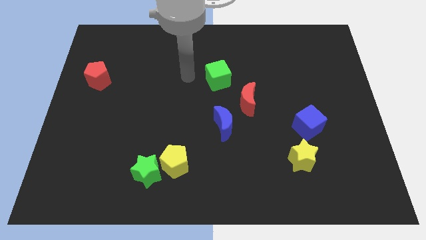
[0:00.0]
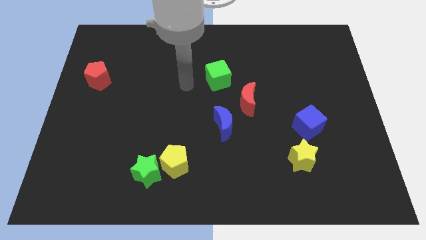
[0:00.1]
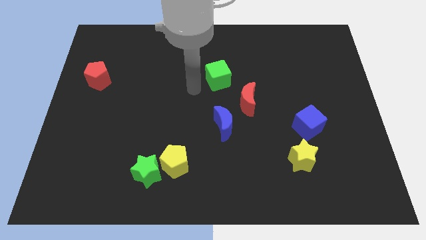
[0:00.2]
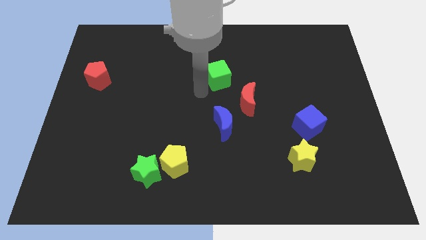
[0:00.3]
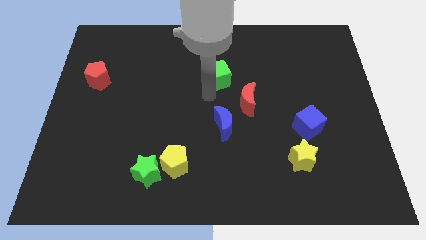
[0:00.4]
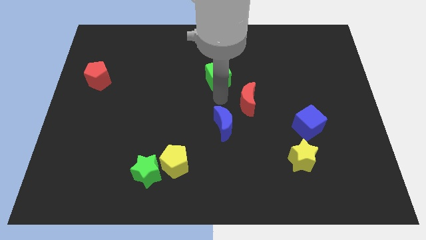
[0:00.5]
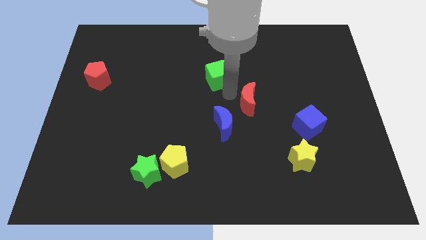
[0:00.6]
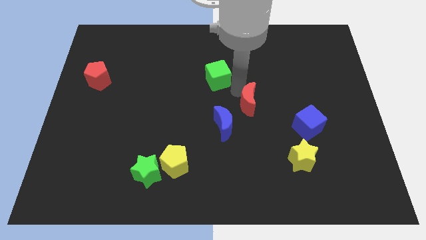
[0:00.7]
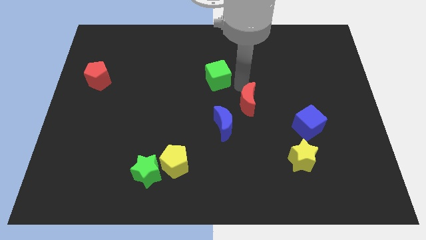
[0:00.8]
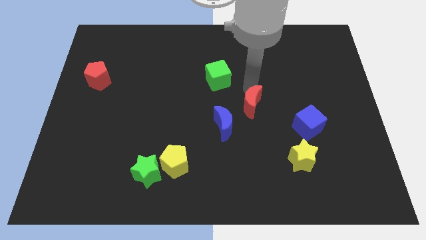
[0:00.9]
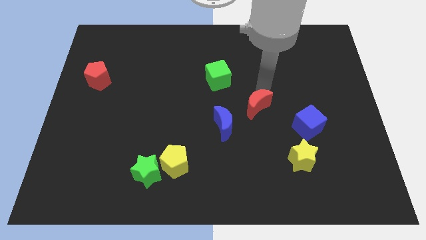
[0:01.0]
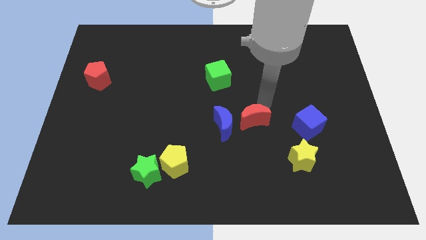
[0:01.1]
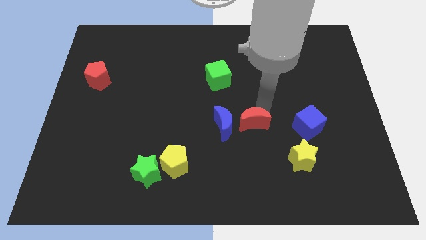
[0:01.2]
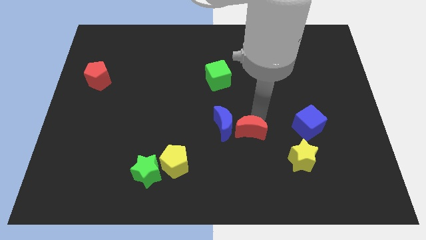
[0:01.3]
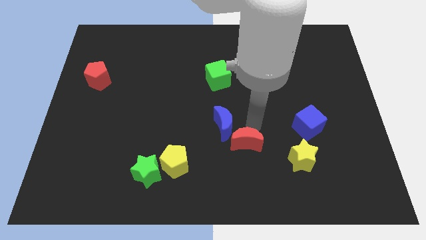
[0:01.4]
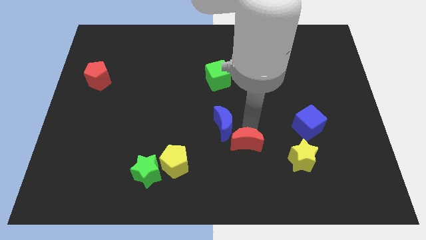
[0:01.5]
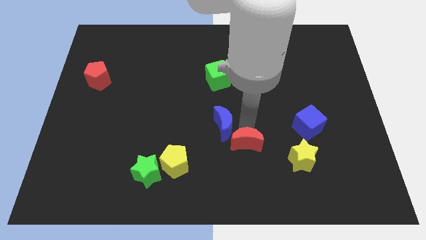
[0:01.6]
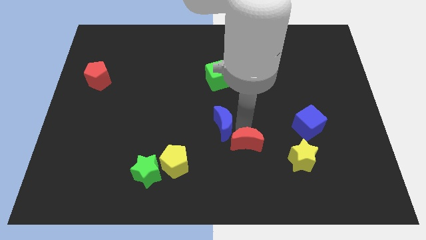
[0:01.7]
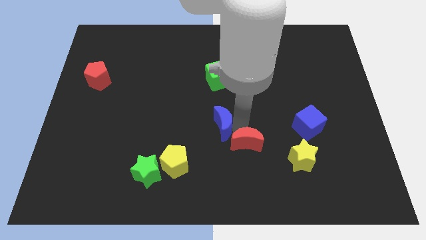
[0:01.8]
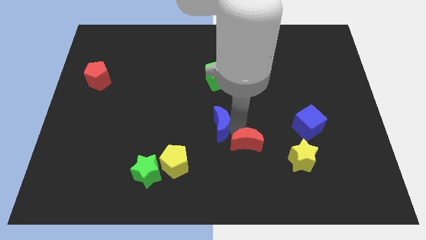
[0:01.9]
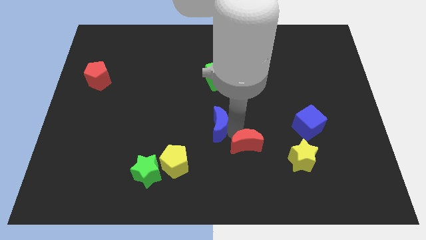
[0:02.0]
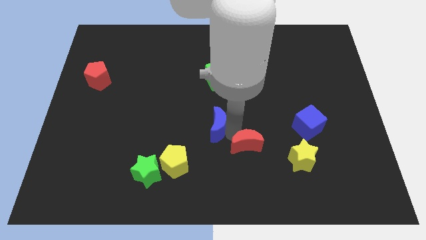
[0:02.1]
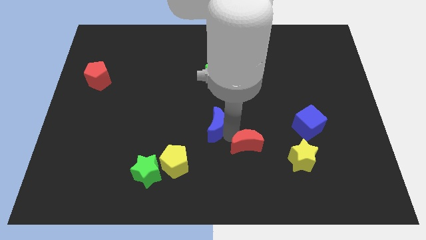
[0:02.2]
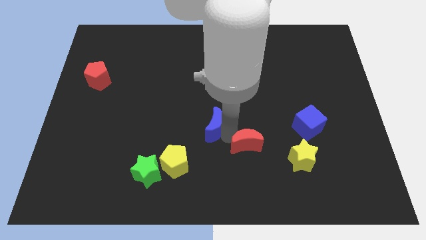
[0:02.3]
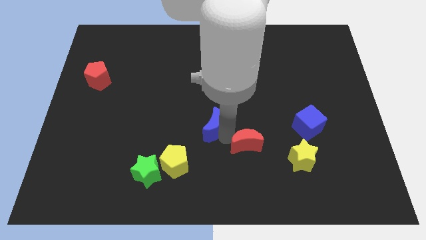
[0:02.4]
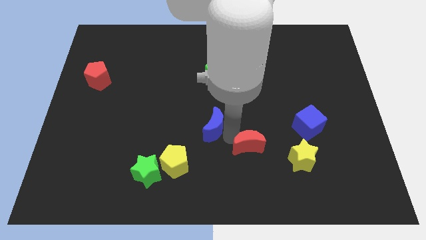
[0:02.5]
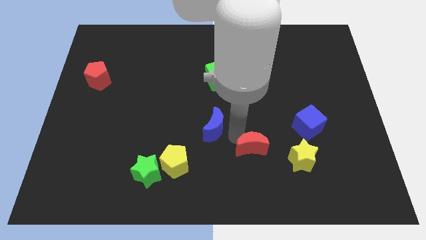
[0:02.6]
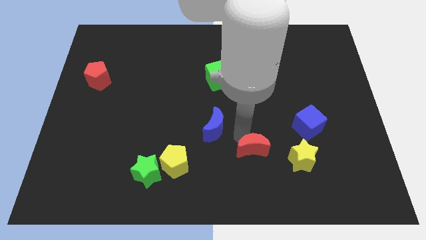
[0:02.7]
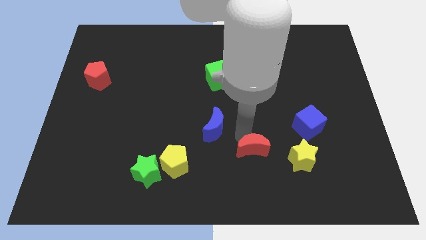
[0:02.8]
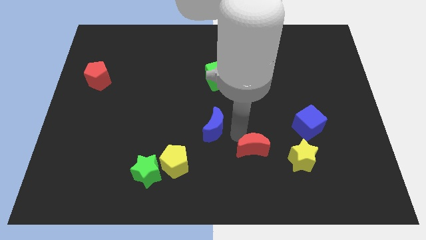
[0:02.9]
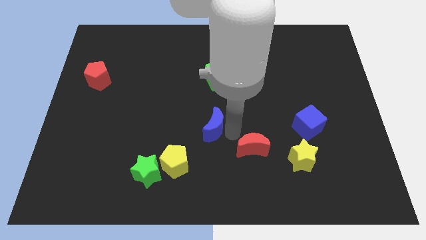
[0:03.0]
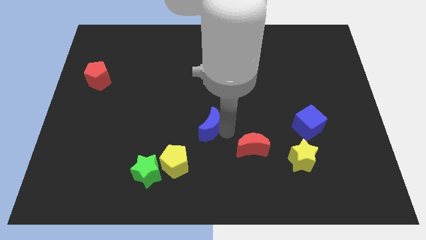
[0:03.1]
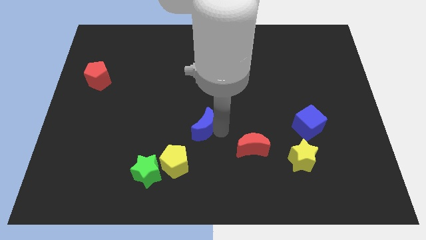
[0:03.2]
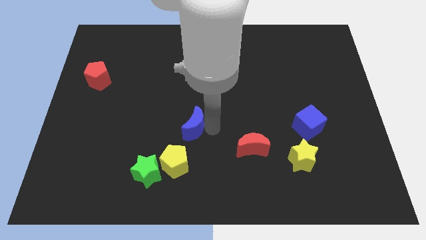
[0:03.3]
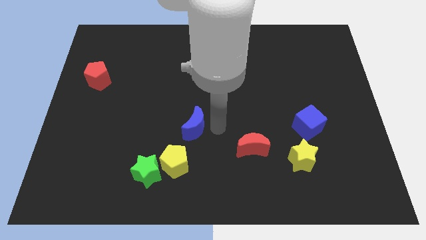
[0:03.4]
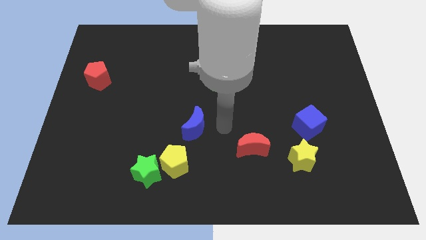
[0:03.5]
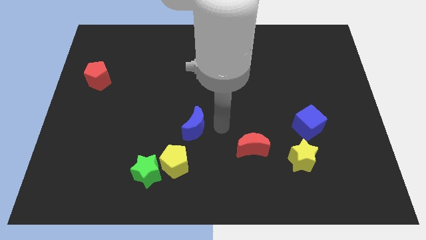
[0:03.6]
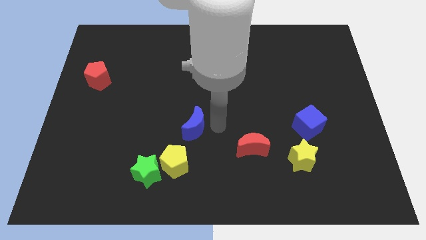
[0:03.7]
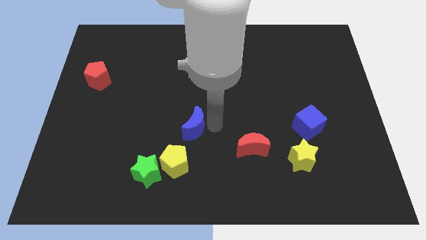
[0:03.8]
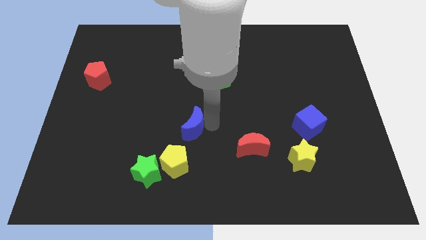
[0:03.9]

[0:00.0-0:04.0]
slightly move the blue moon left

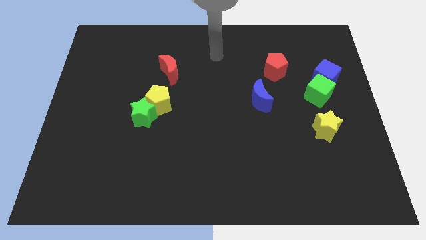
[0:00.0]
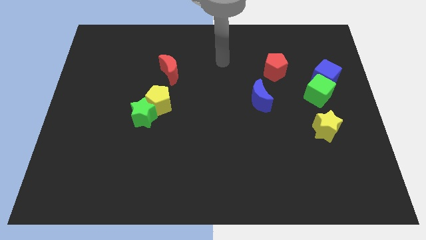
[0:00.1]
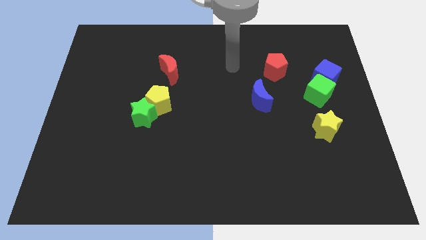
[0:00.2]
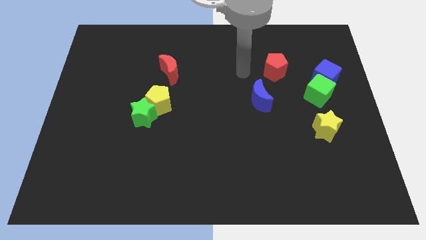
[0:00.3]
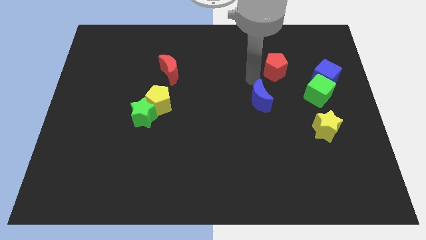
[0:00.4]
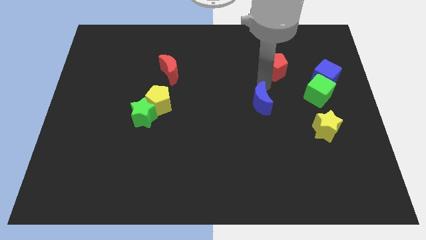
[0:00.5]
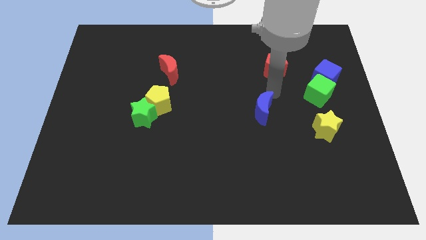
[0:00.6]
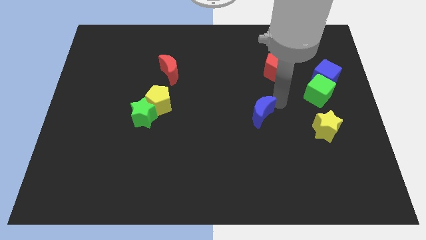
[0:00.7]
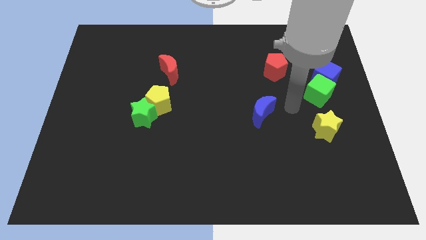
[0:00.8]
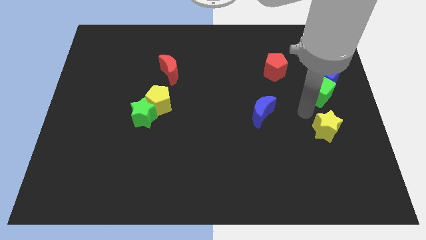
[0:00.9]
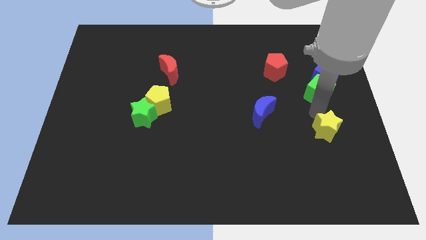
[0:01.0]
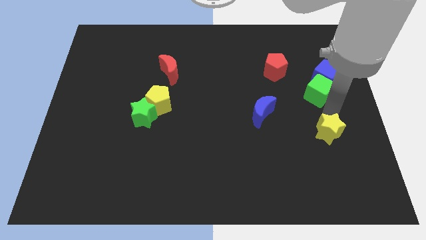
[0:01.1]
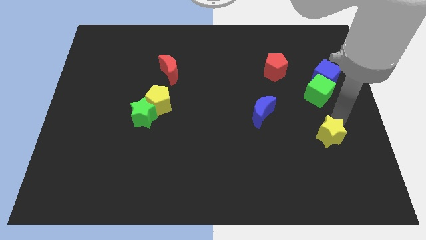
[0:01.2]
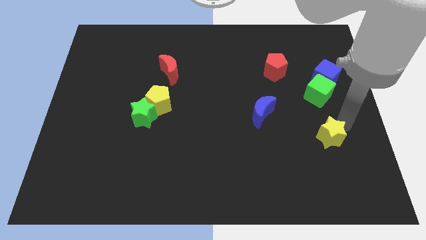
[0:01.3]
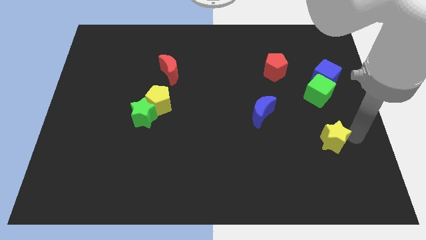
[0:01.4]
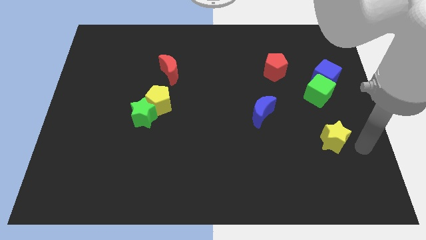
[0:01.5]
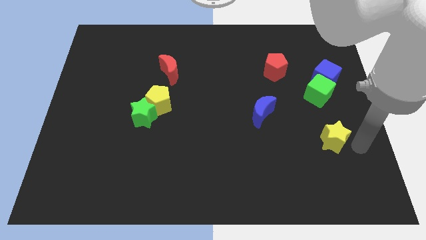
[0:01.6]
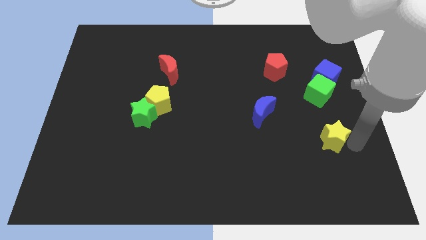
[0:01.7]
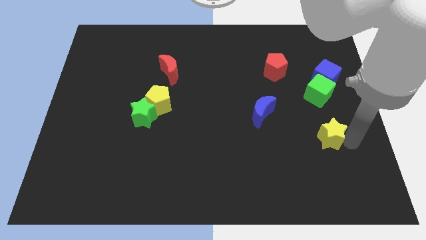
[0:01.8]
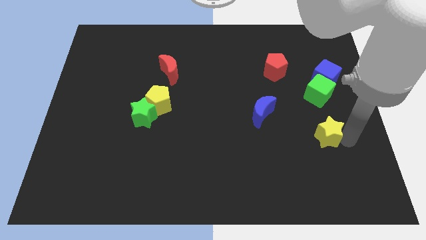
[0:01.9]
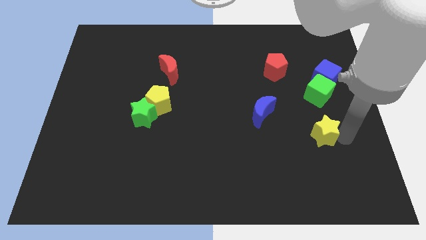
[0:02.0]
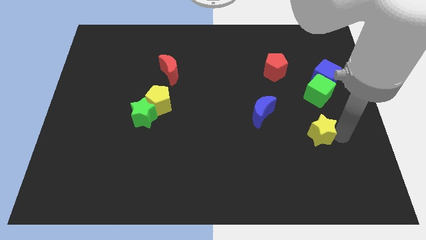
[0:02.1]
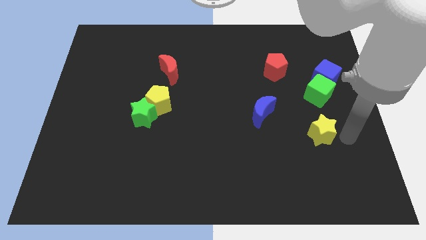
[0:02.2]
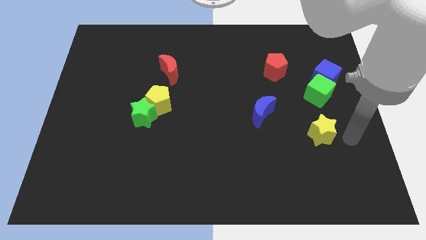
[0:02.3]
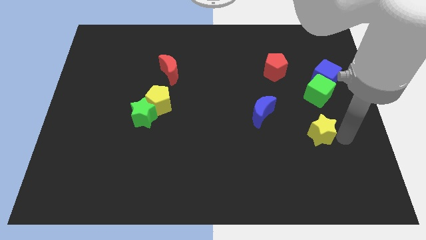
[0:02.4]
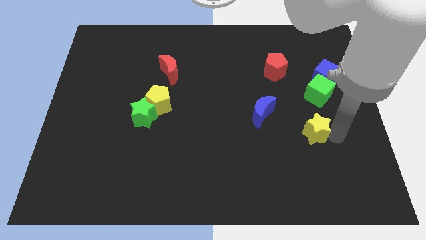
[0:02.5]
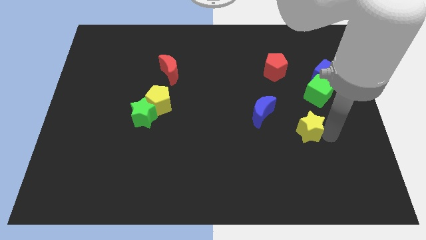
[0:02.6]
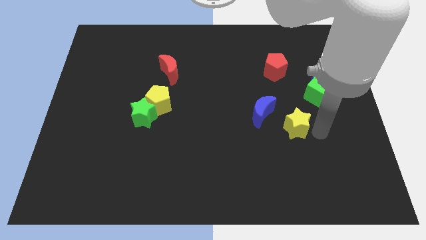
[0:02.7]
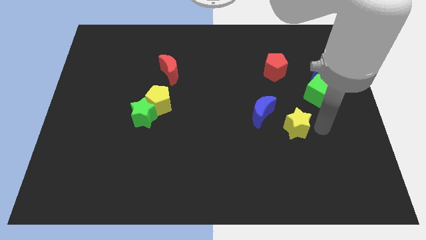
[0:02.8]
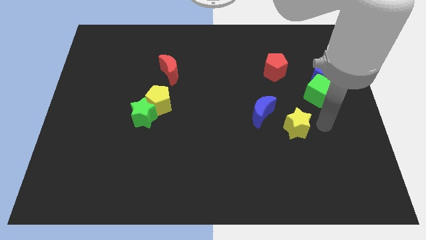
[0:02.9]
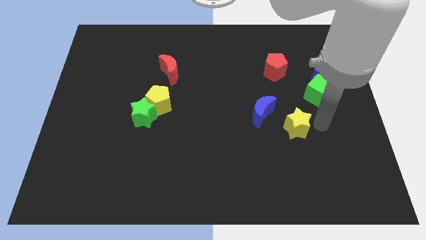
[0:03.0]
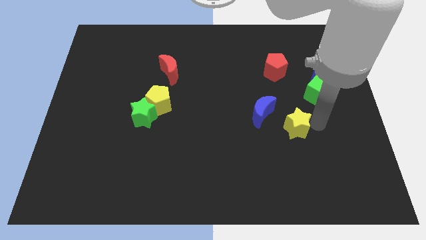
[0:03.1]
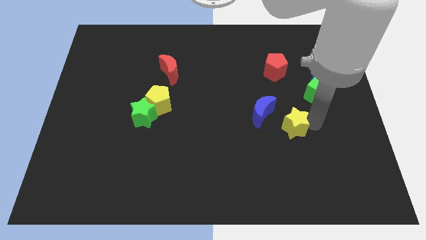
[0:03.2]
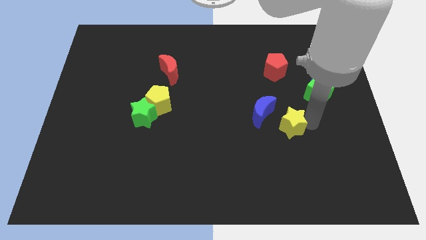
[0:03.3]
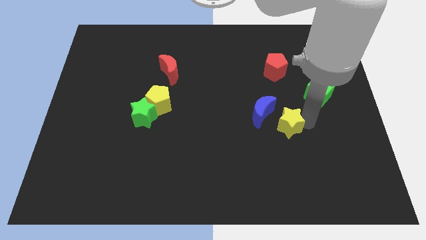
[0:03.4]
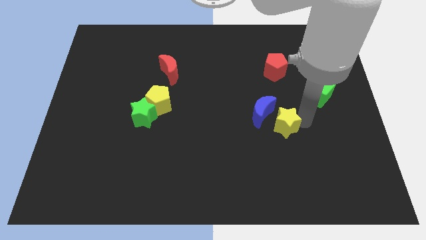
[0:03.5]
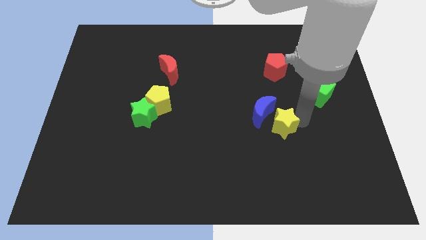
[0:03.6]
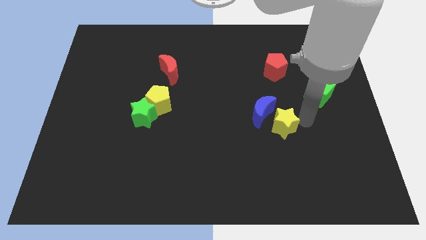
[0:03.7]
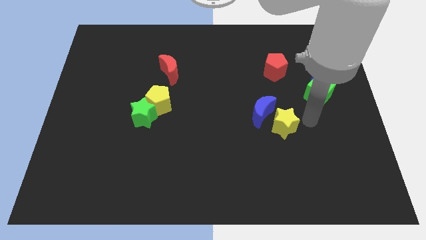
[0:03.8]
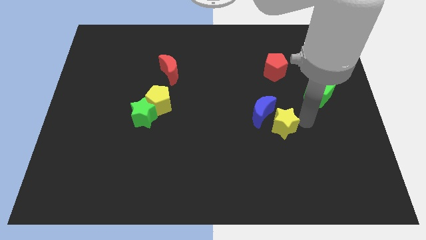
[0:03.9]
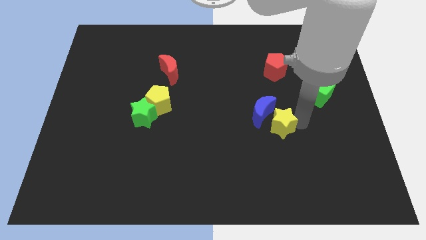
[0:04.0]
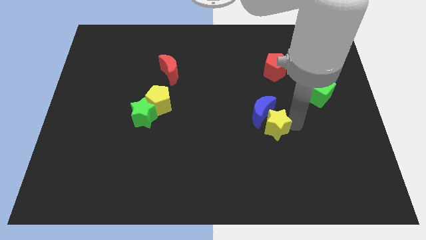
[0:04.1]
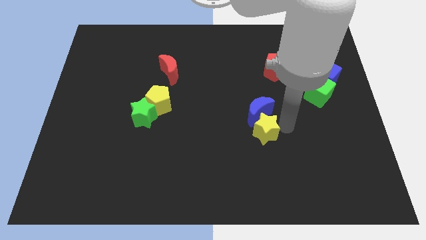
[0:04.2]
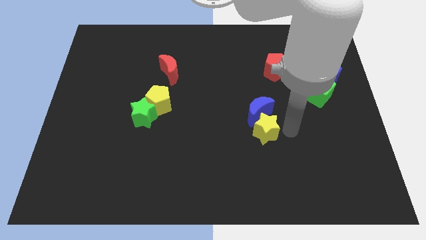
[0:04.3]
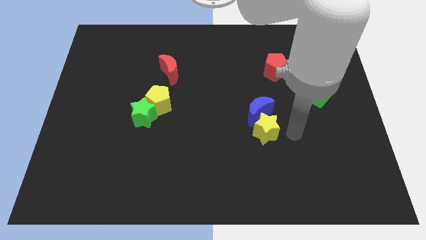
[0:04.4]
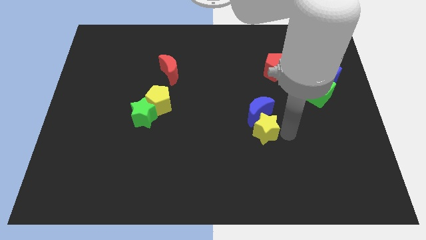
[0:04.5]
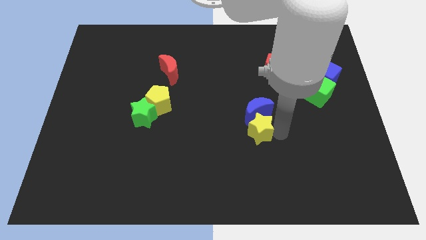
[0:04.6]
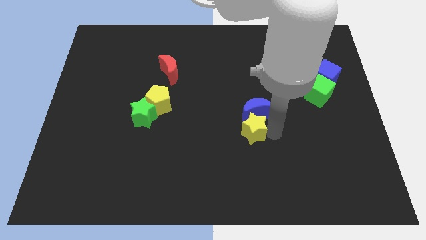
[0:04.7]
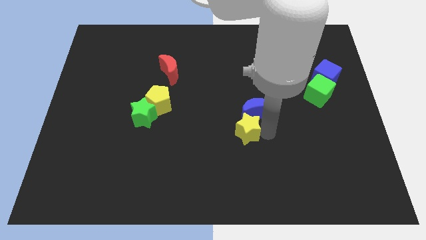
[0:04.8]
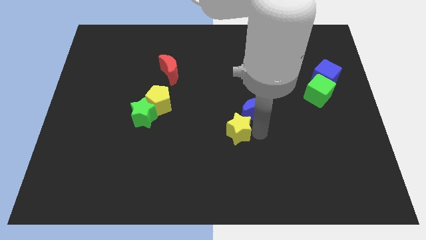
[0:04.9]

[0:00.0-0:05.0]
slide the yellow star to the left
